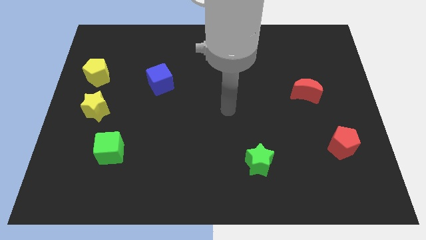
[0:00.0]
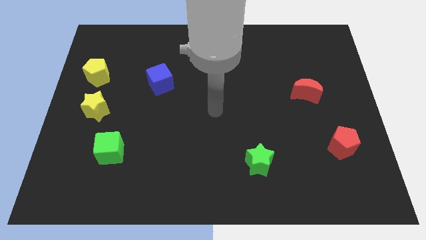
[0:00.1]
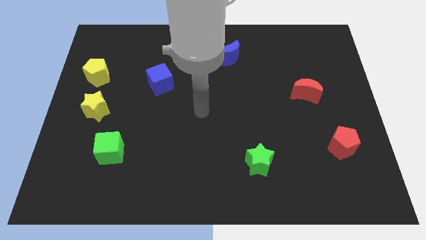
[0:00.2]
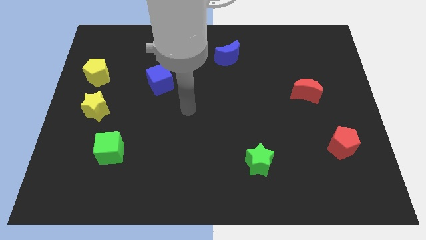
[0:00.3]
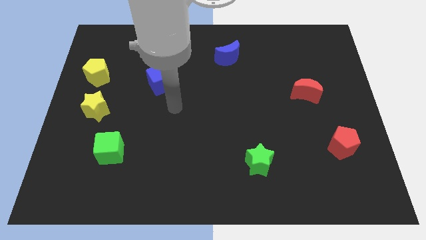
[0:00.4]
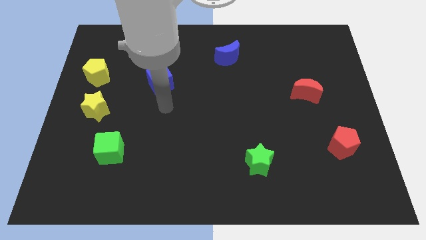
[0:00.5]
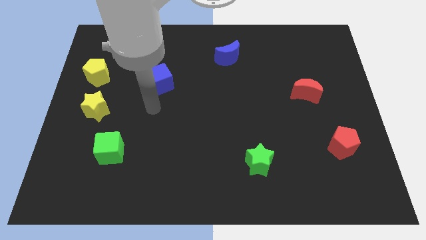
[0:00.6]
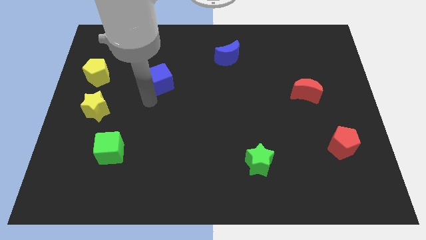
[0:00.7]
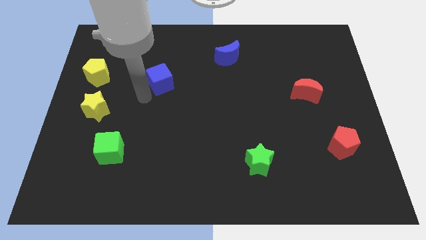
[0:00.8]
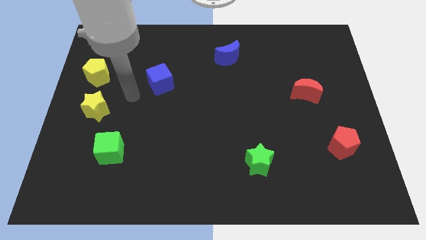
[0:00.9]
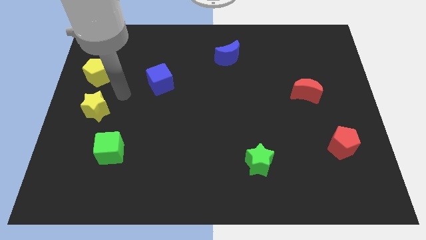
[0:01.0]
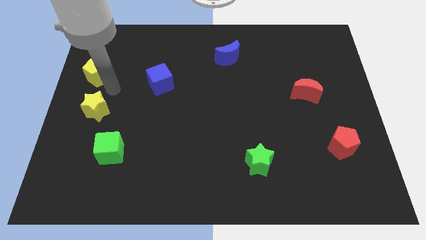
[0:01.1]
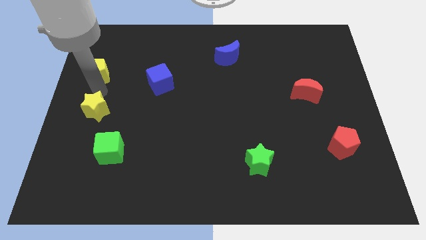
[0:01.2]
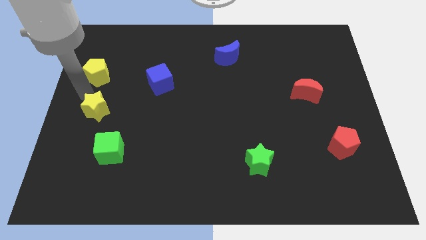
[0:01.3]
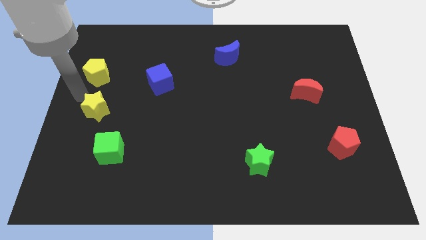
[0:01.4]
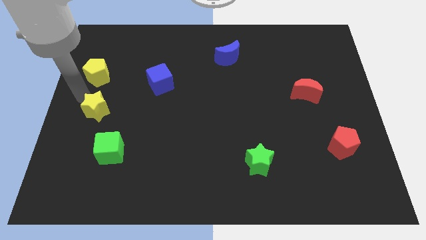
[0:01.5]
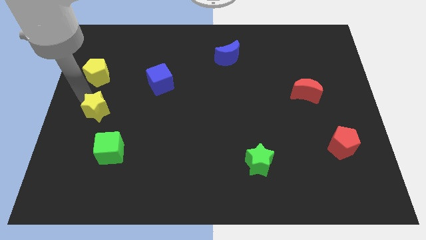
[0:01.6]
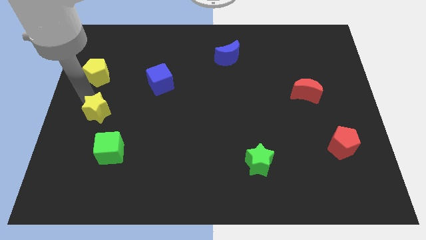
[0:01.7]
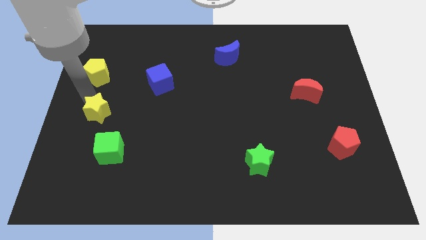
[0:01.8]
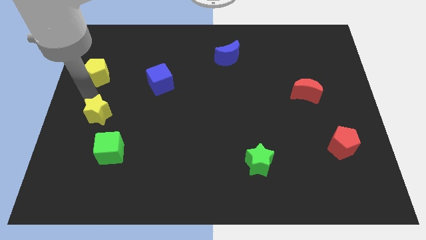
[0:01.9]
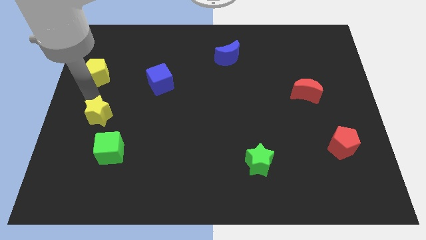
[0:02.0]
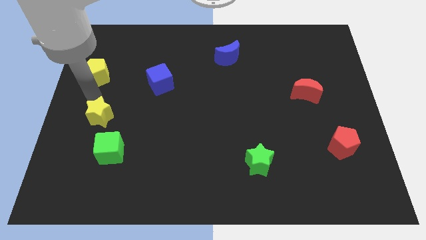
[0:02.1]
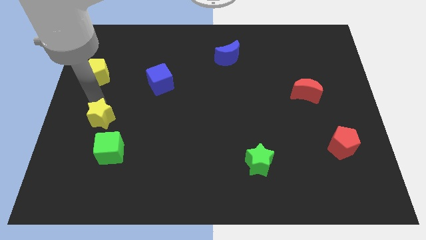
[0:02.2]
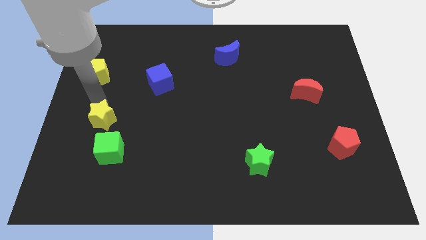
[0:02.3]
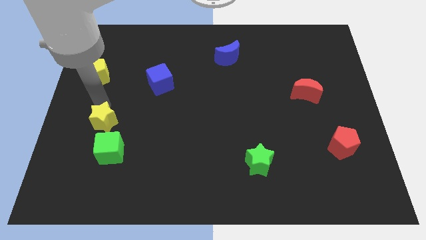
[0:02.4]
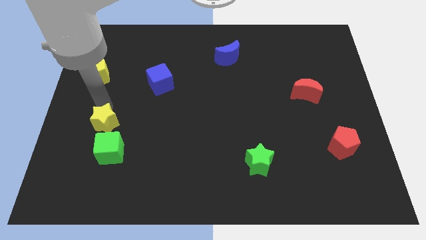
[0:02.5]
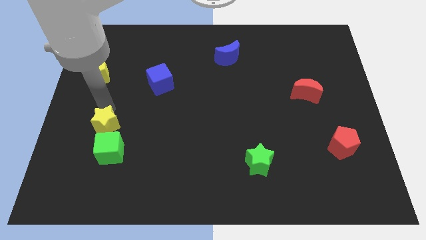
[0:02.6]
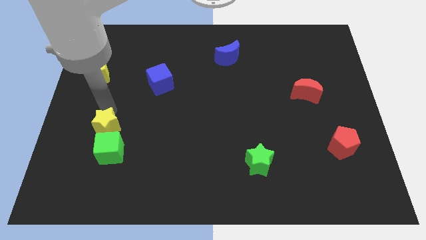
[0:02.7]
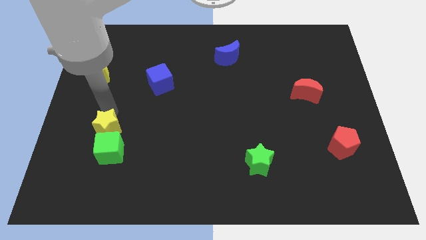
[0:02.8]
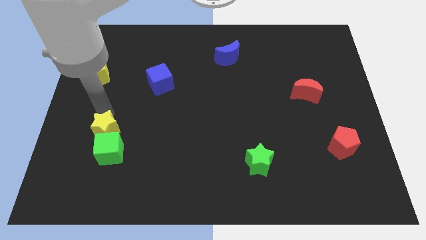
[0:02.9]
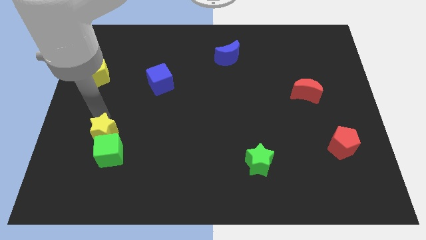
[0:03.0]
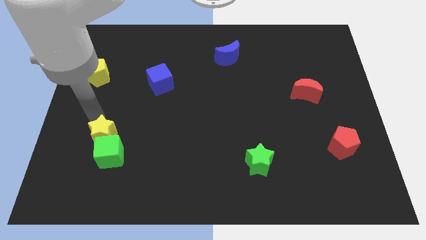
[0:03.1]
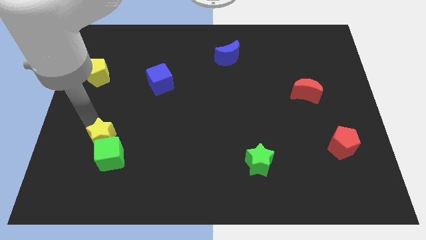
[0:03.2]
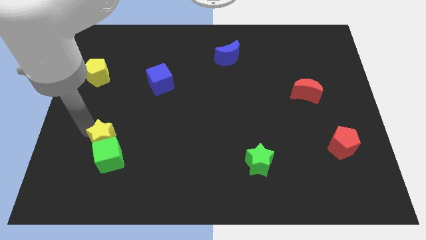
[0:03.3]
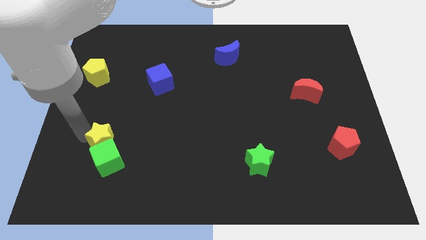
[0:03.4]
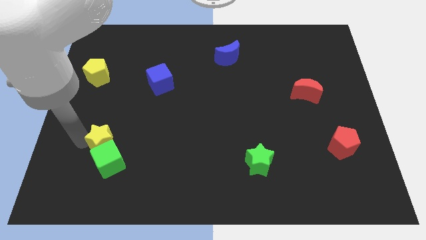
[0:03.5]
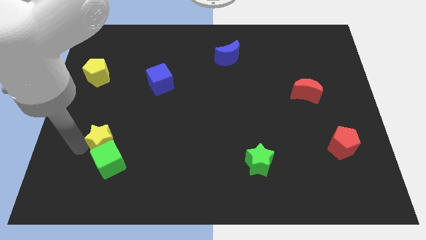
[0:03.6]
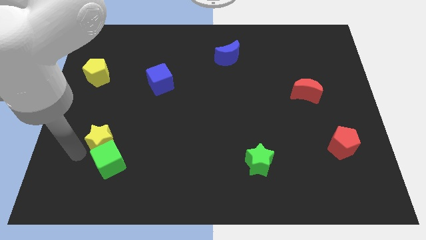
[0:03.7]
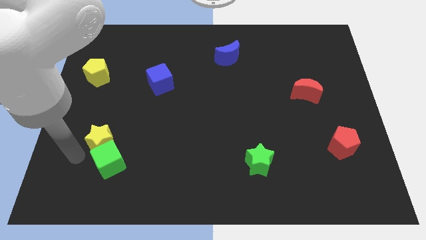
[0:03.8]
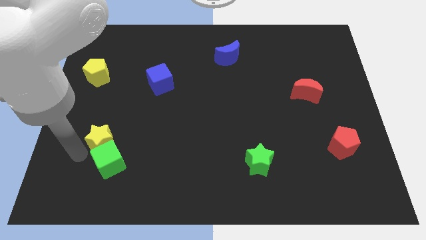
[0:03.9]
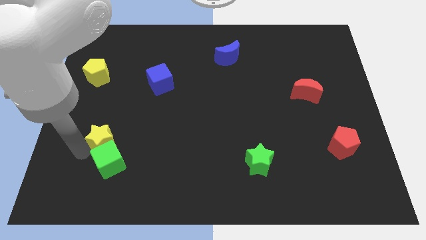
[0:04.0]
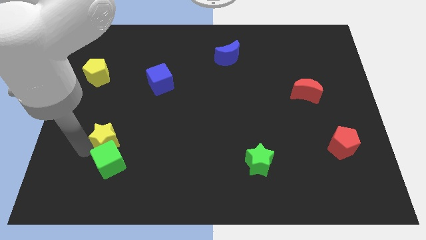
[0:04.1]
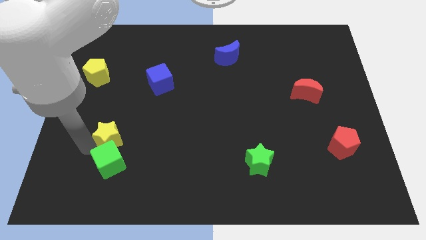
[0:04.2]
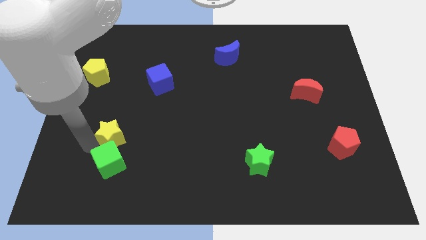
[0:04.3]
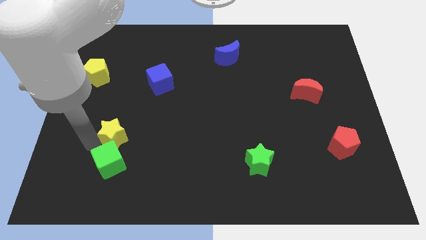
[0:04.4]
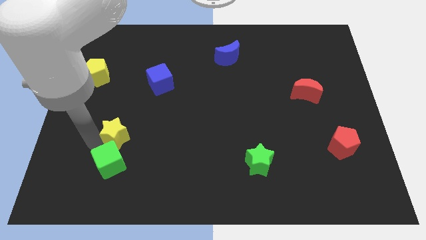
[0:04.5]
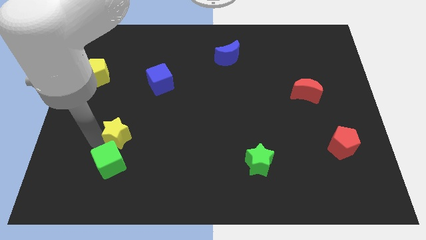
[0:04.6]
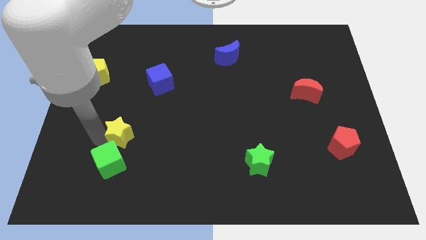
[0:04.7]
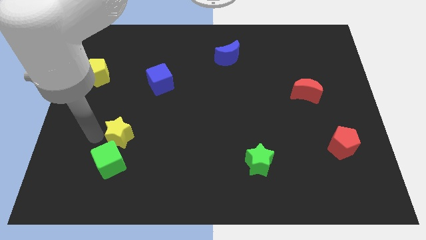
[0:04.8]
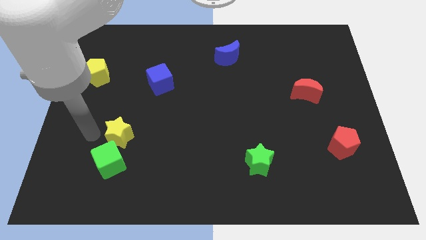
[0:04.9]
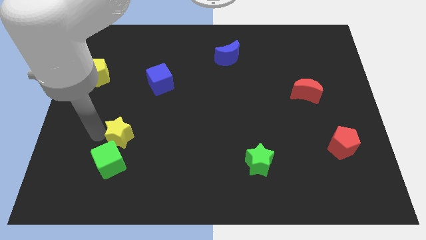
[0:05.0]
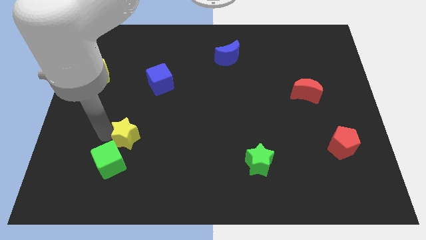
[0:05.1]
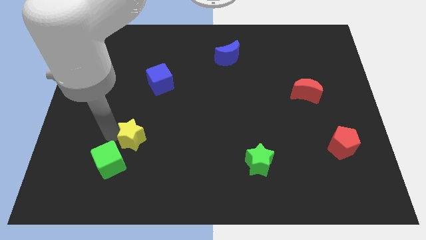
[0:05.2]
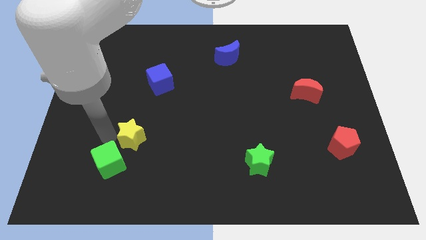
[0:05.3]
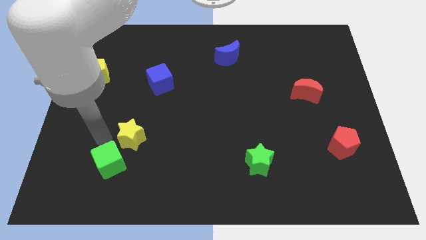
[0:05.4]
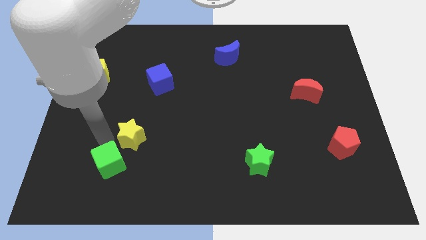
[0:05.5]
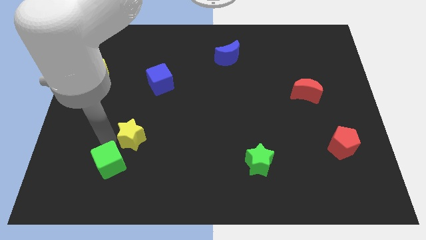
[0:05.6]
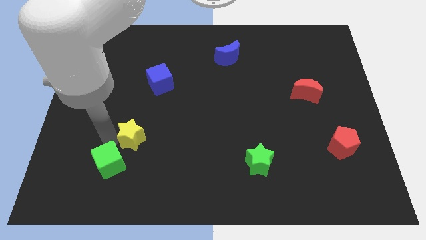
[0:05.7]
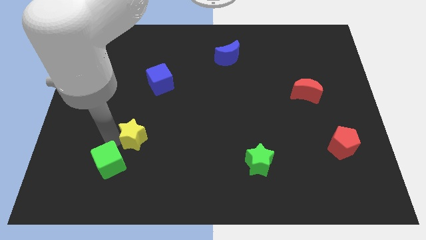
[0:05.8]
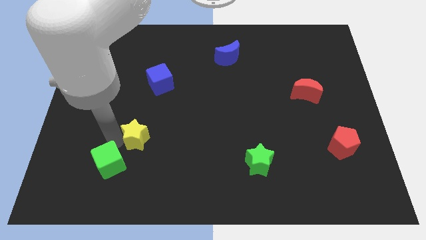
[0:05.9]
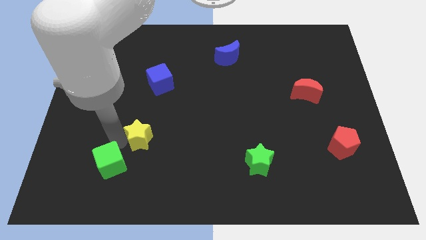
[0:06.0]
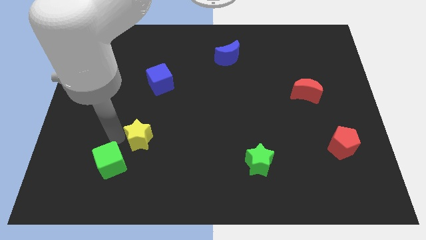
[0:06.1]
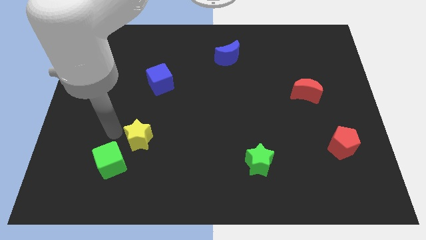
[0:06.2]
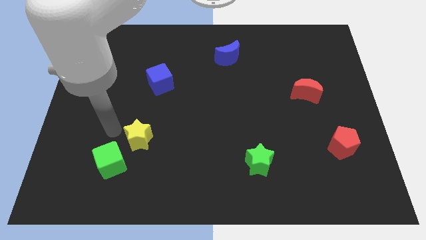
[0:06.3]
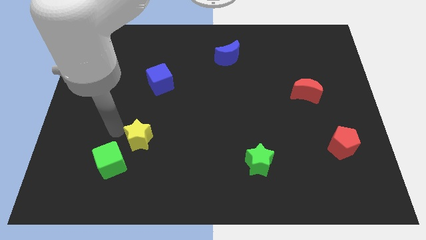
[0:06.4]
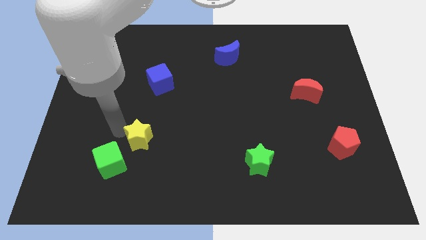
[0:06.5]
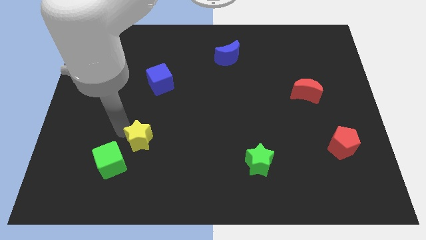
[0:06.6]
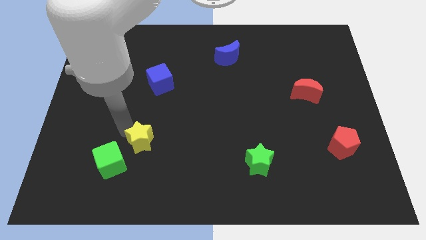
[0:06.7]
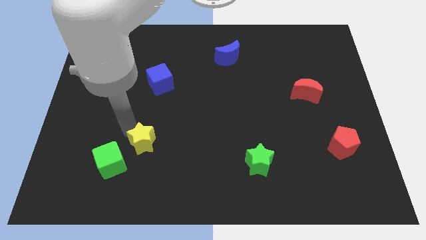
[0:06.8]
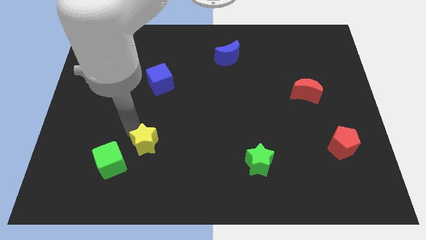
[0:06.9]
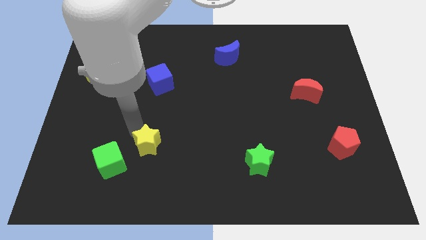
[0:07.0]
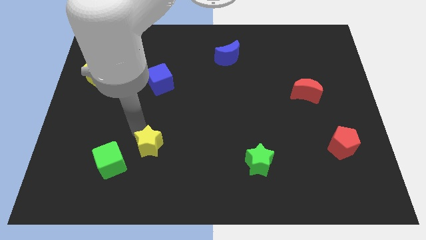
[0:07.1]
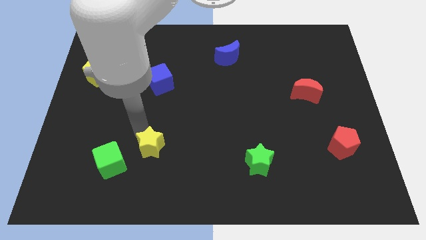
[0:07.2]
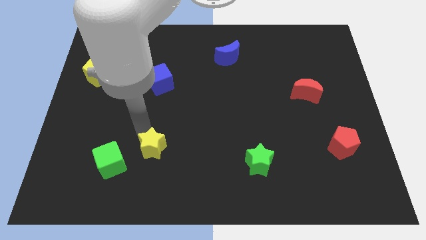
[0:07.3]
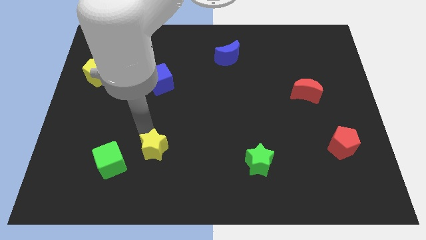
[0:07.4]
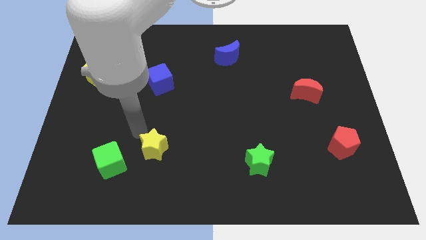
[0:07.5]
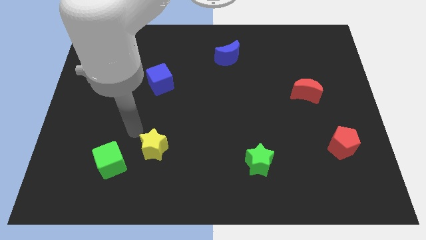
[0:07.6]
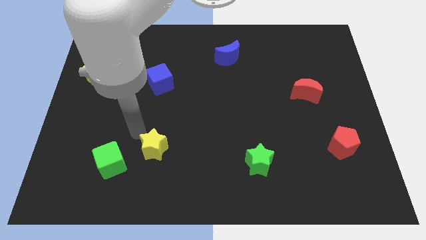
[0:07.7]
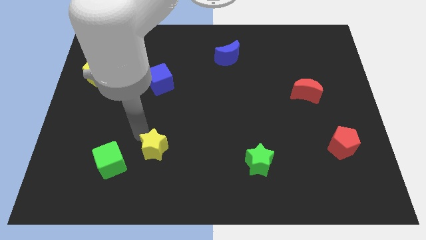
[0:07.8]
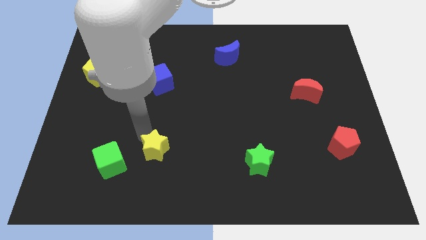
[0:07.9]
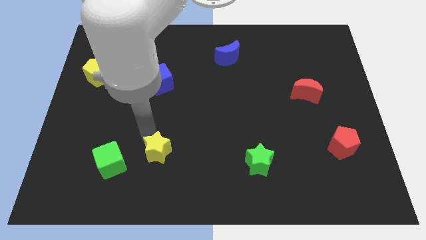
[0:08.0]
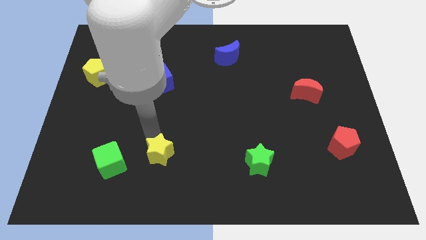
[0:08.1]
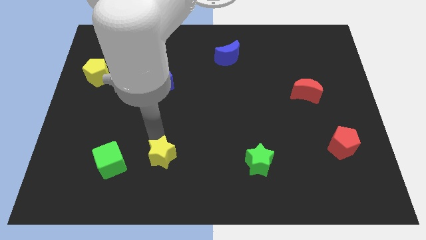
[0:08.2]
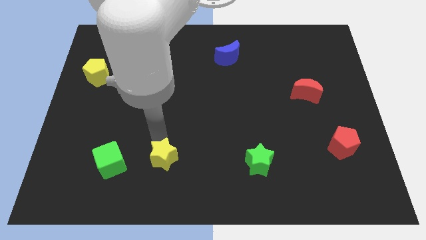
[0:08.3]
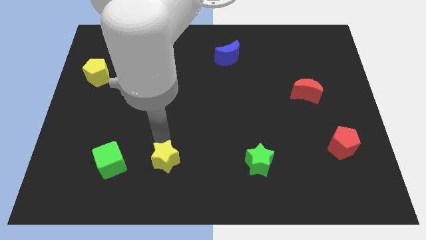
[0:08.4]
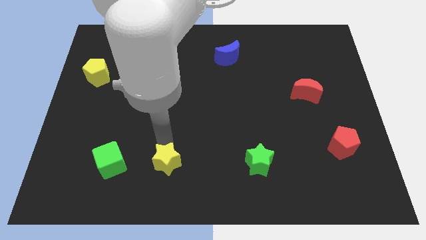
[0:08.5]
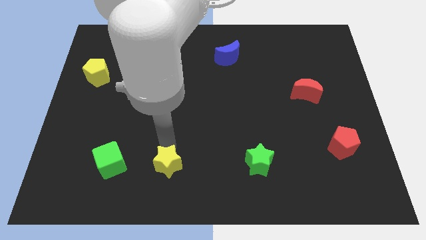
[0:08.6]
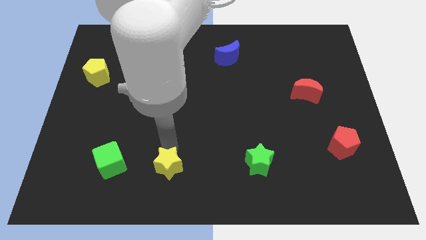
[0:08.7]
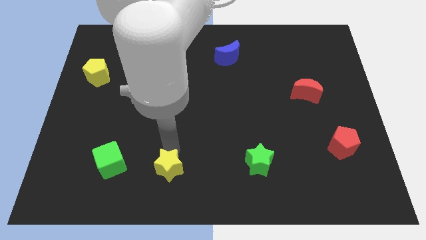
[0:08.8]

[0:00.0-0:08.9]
push the yellow star to the bottom side
